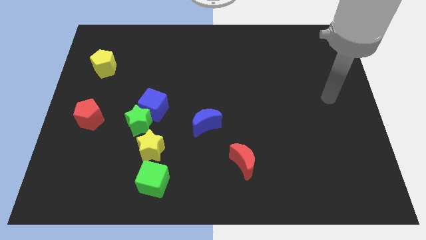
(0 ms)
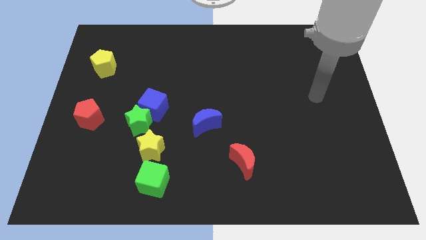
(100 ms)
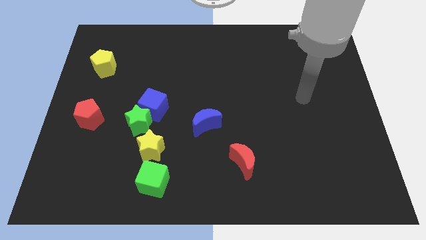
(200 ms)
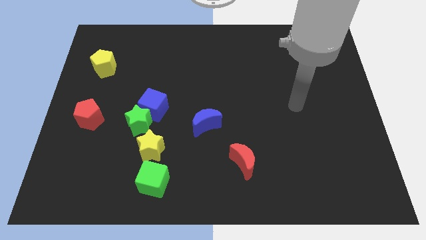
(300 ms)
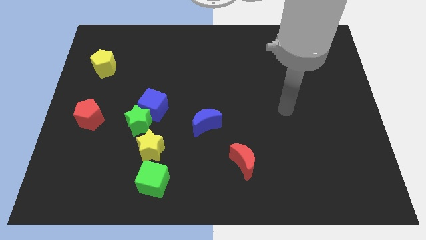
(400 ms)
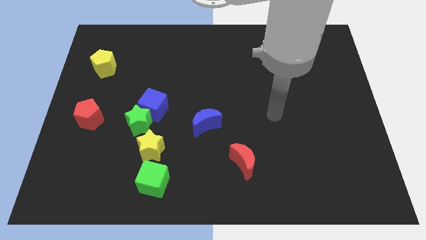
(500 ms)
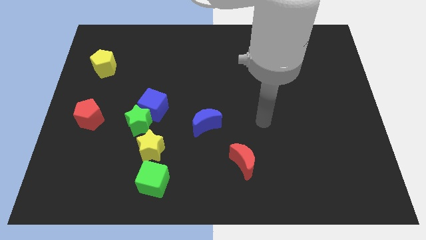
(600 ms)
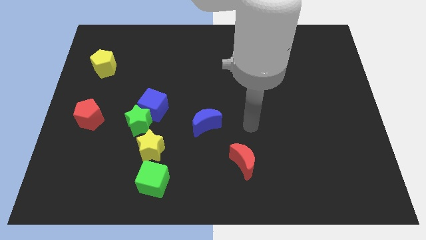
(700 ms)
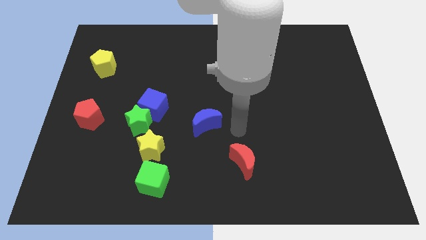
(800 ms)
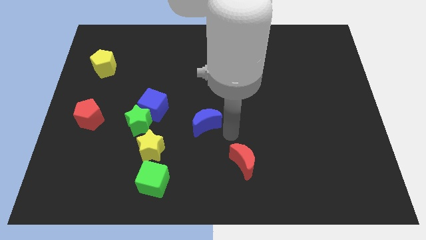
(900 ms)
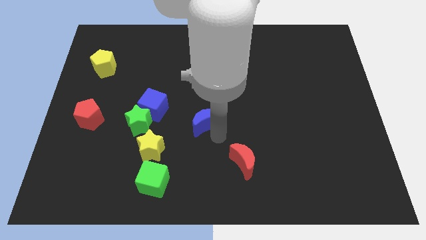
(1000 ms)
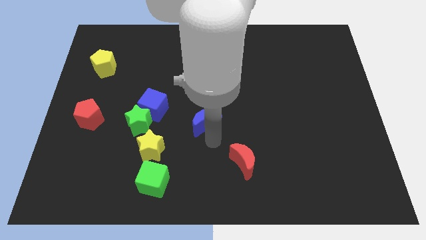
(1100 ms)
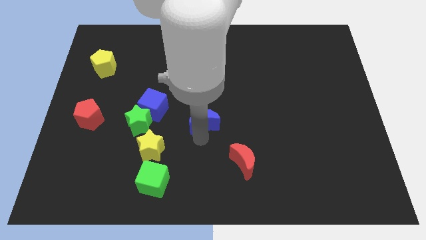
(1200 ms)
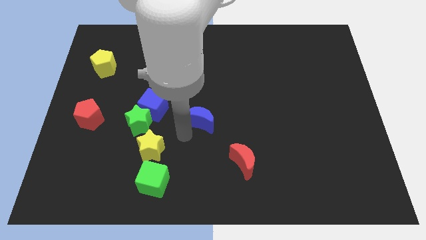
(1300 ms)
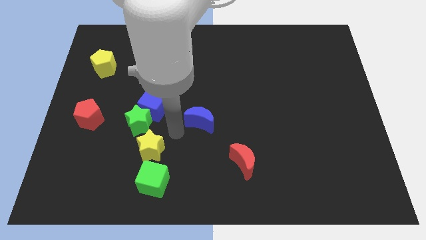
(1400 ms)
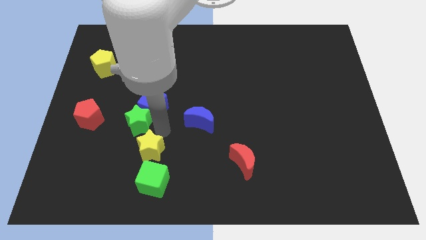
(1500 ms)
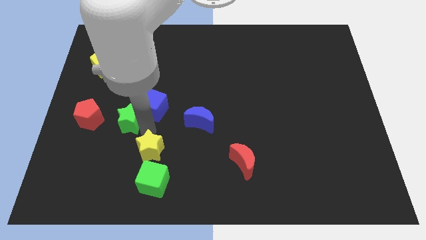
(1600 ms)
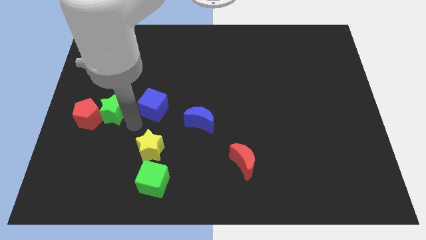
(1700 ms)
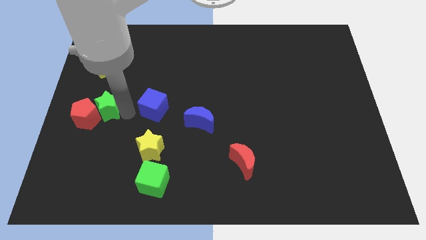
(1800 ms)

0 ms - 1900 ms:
move the blue cube away from the green star

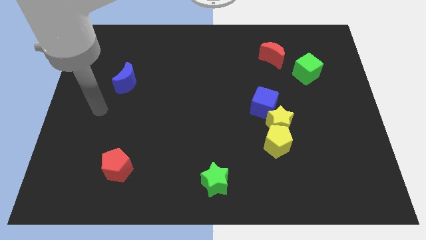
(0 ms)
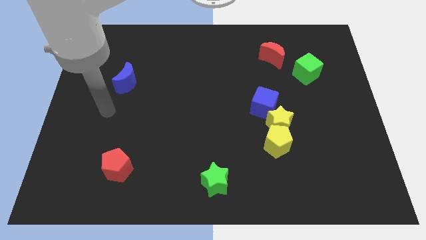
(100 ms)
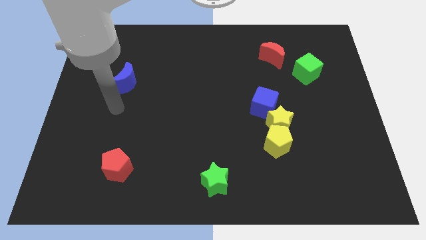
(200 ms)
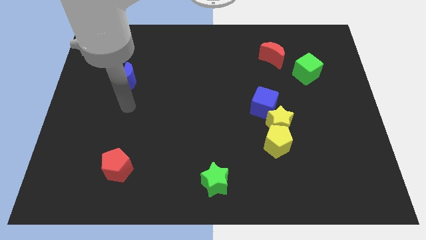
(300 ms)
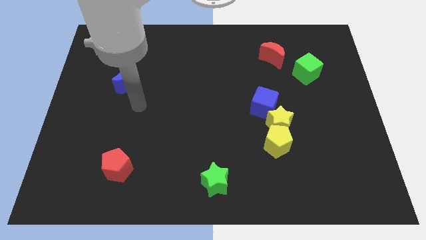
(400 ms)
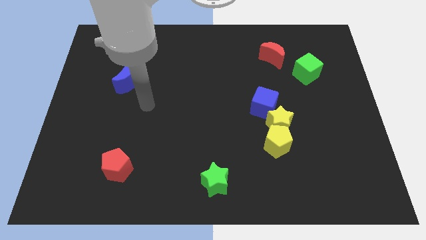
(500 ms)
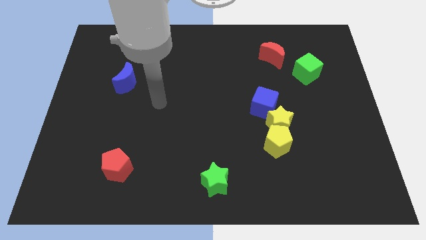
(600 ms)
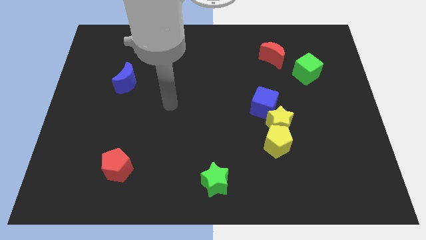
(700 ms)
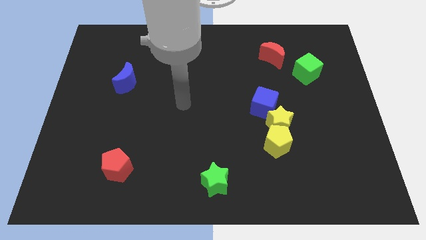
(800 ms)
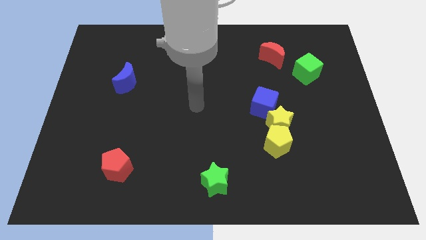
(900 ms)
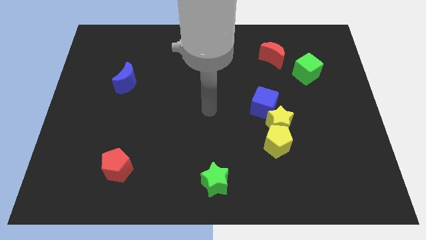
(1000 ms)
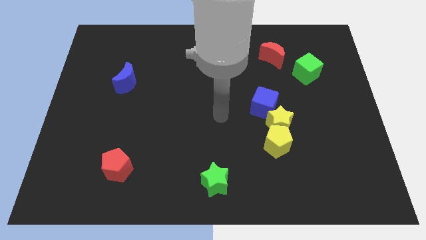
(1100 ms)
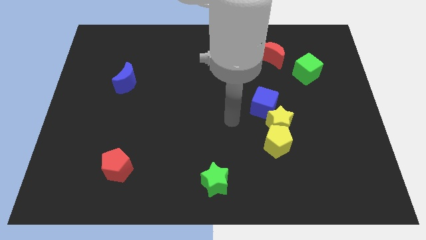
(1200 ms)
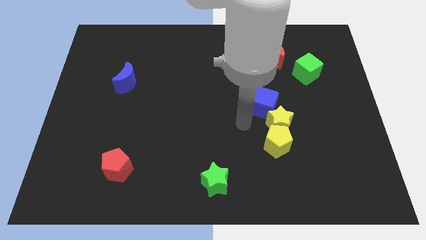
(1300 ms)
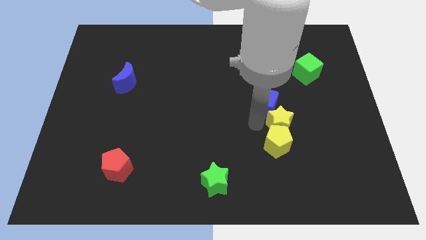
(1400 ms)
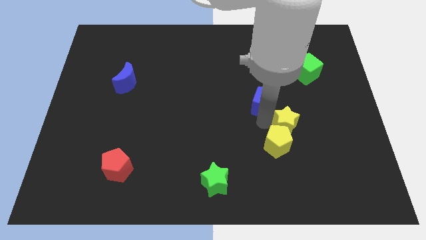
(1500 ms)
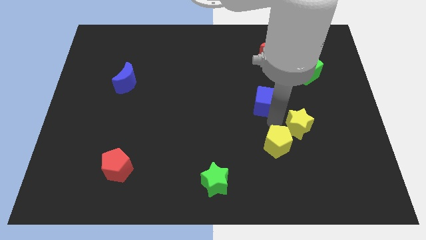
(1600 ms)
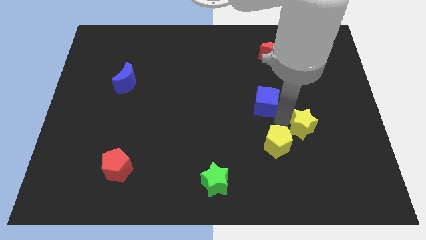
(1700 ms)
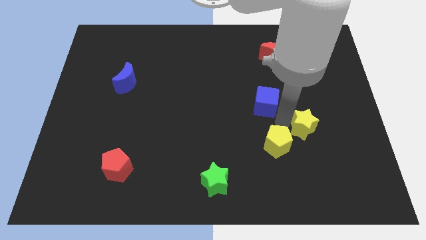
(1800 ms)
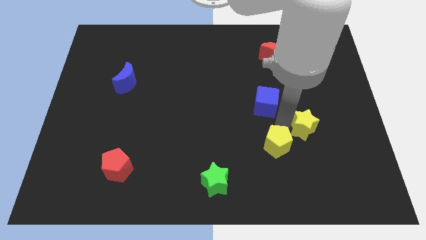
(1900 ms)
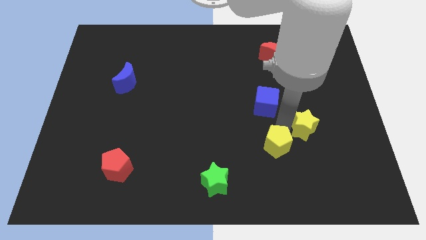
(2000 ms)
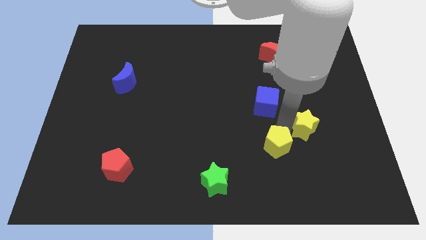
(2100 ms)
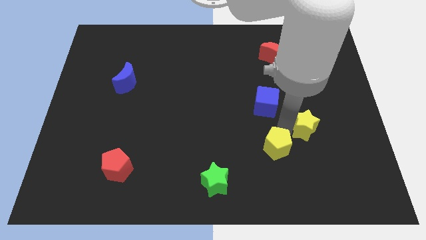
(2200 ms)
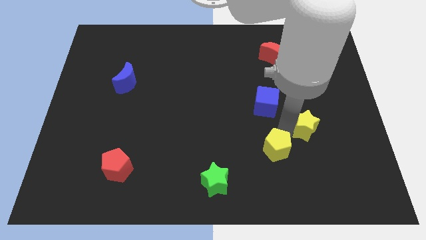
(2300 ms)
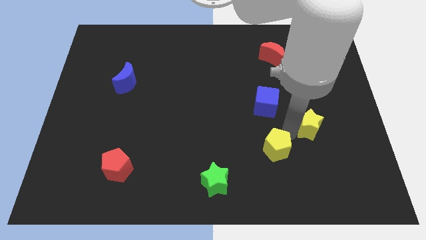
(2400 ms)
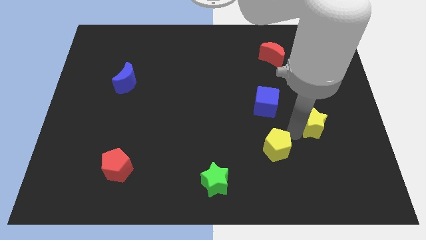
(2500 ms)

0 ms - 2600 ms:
move the yellow pentagon away from the yellow star

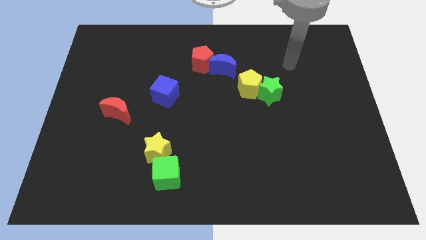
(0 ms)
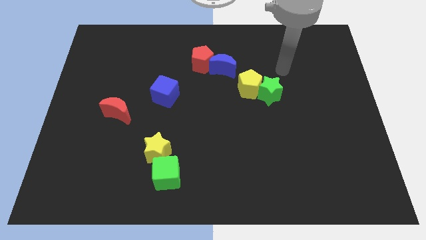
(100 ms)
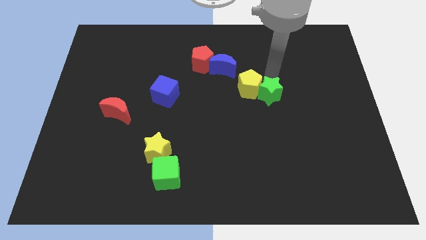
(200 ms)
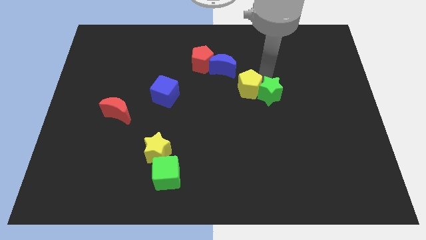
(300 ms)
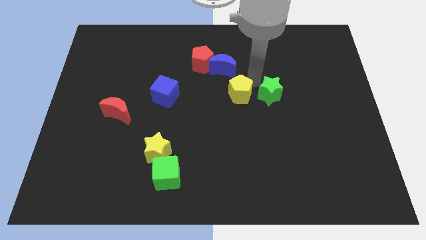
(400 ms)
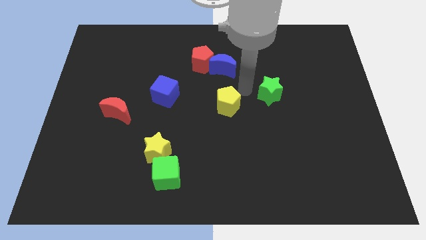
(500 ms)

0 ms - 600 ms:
move the green star away from the yellow pentagon

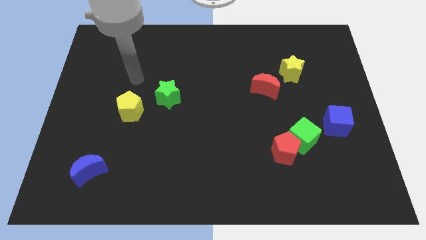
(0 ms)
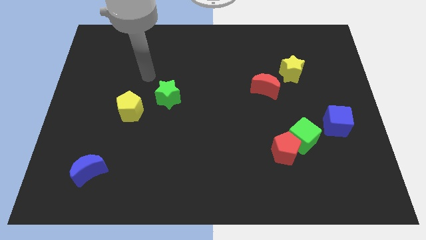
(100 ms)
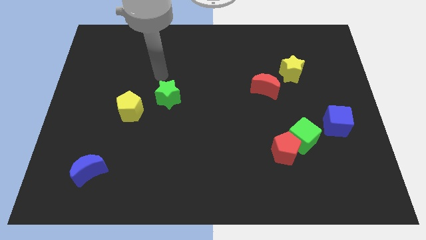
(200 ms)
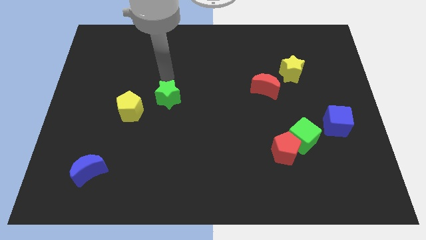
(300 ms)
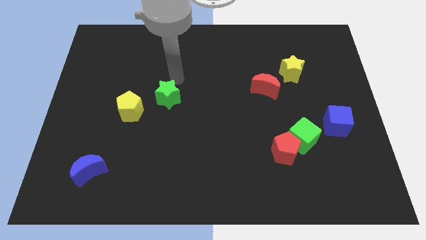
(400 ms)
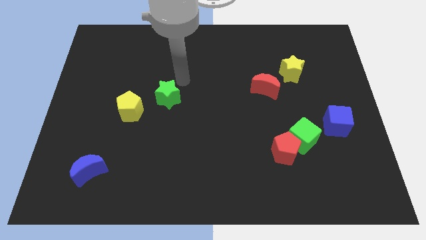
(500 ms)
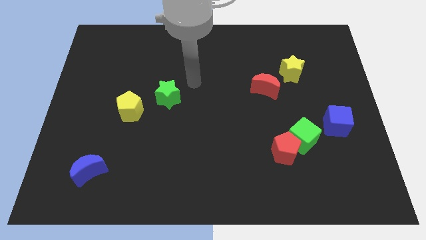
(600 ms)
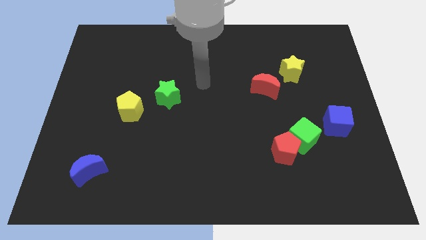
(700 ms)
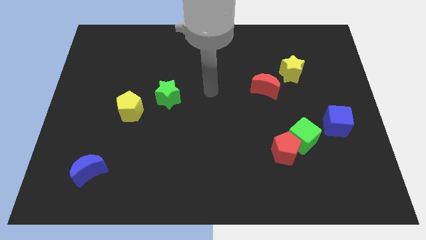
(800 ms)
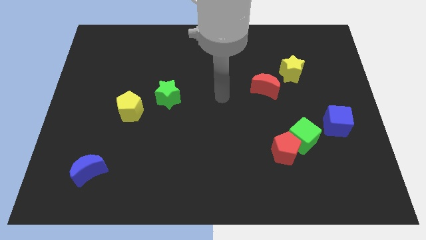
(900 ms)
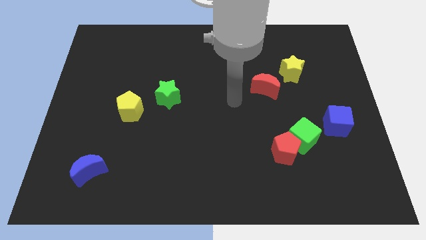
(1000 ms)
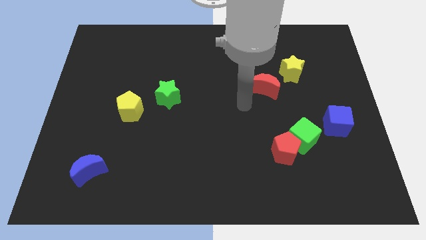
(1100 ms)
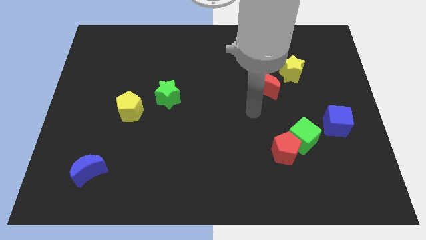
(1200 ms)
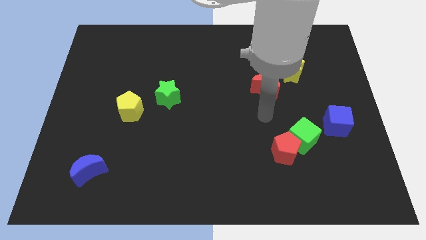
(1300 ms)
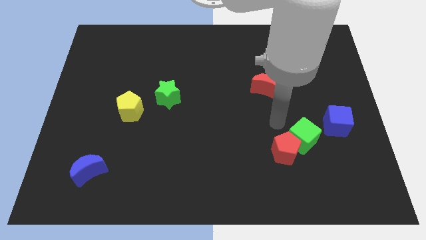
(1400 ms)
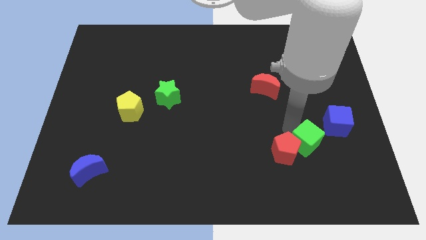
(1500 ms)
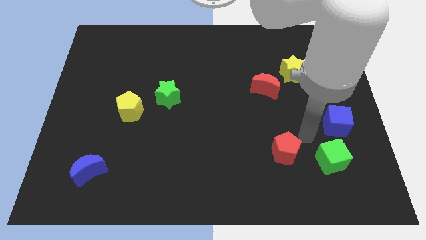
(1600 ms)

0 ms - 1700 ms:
move the red pentagon away from the green cube

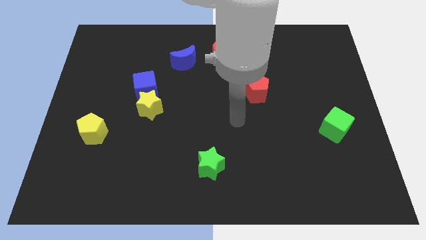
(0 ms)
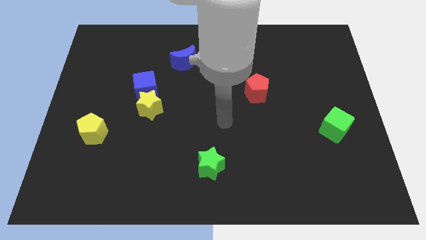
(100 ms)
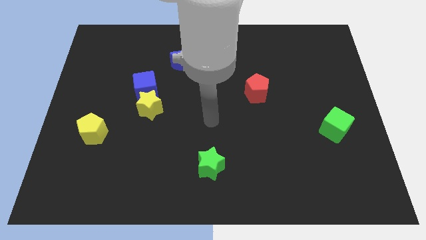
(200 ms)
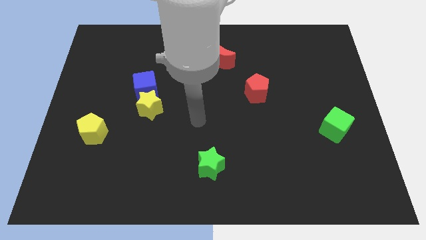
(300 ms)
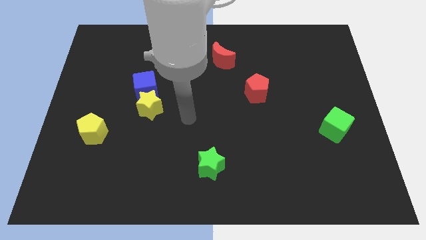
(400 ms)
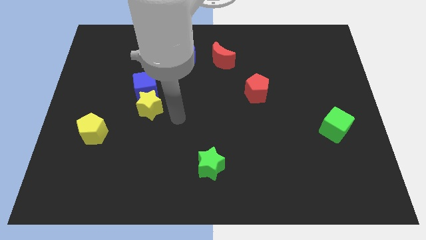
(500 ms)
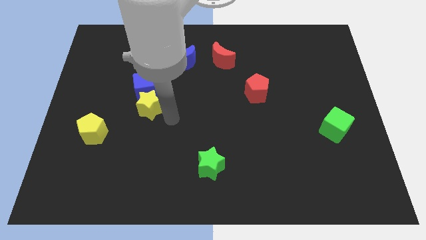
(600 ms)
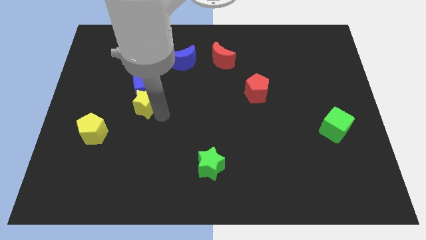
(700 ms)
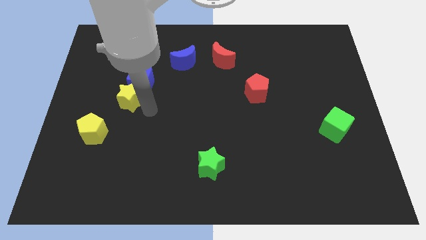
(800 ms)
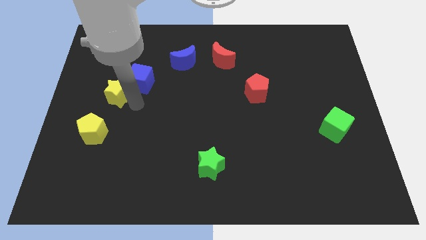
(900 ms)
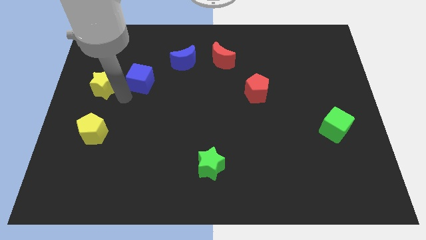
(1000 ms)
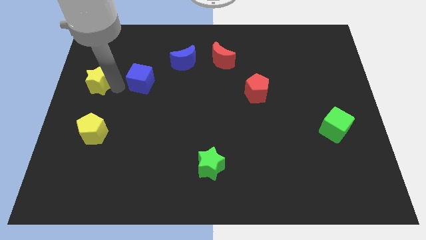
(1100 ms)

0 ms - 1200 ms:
move the blue cube away from the yellow star

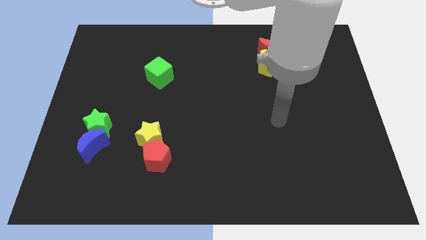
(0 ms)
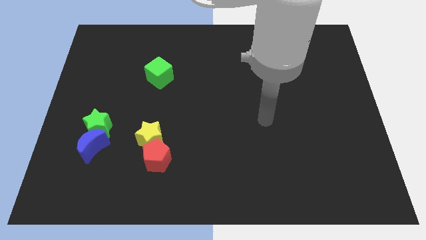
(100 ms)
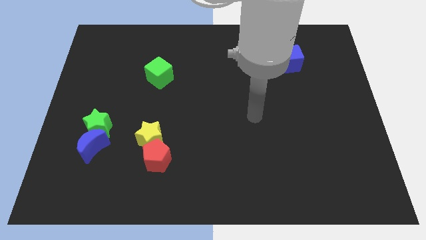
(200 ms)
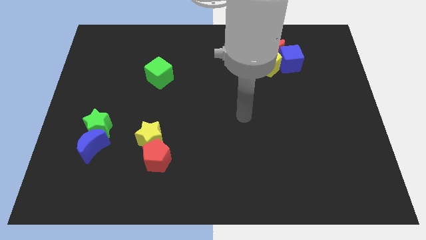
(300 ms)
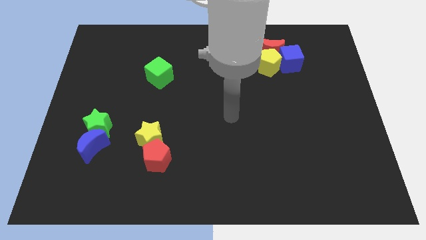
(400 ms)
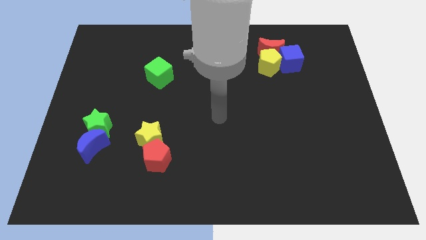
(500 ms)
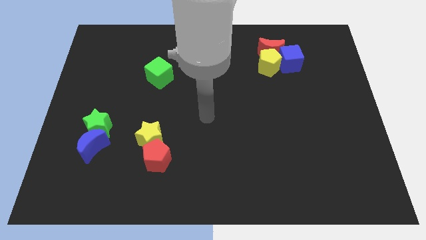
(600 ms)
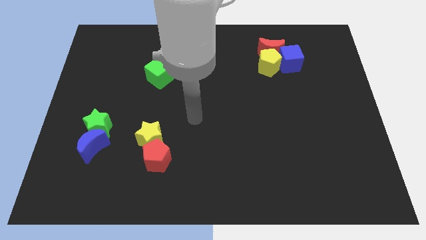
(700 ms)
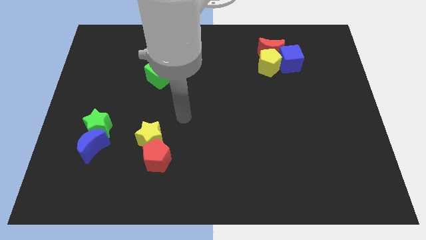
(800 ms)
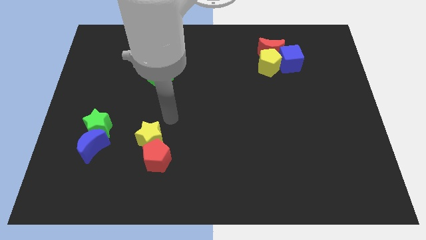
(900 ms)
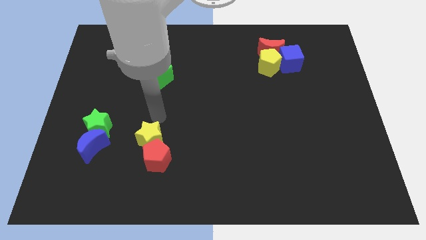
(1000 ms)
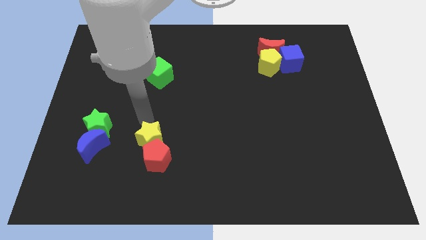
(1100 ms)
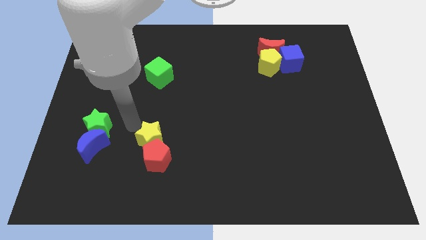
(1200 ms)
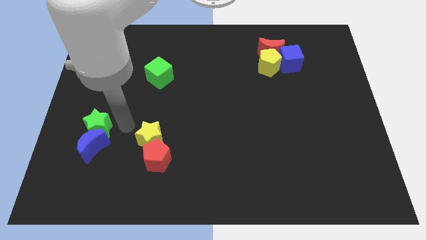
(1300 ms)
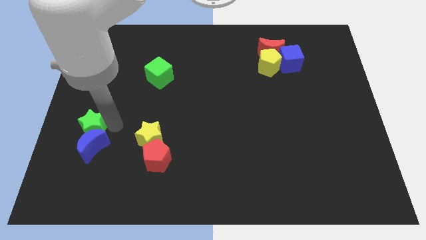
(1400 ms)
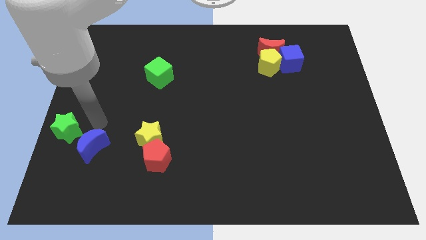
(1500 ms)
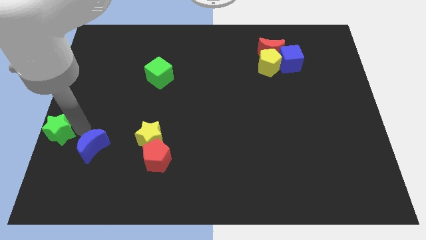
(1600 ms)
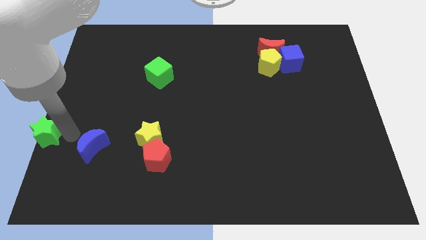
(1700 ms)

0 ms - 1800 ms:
separate the blue moon from the green star
